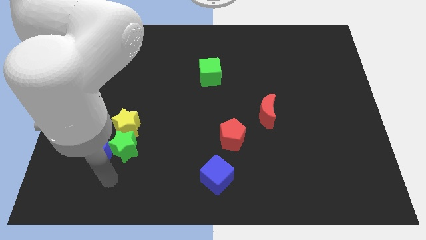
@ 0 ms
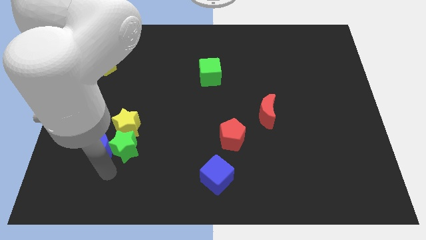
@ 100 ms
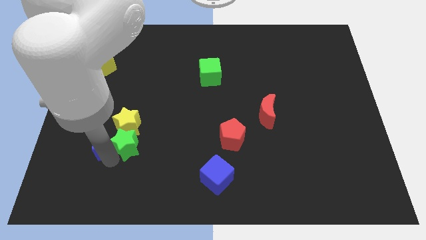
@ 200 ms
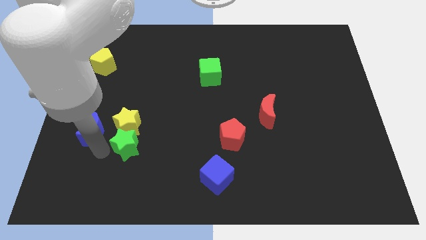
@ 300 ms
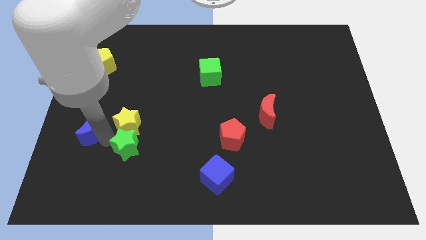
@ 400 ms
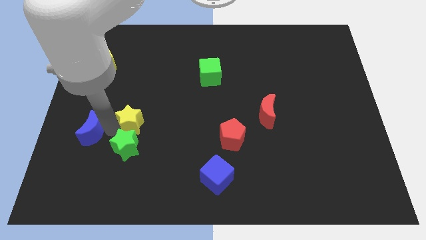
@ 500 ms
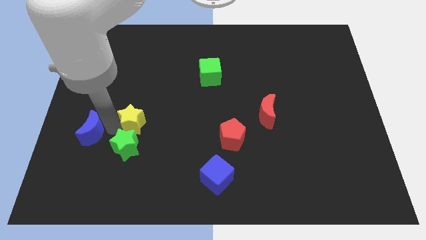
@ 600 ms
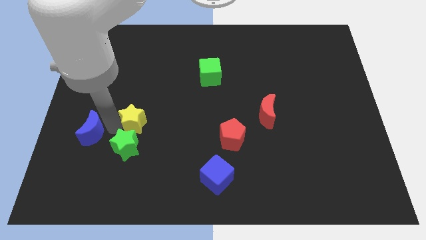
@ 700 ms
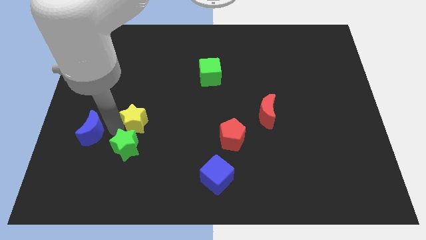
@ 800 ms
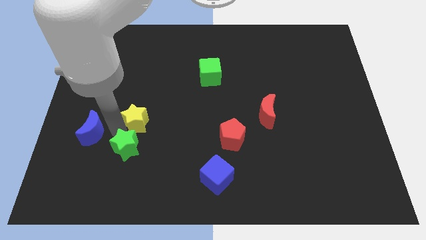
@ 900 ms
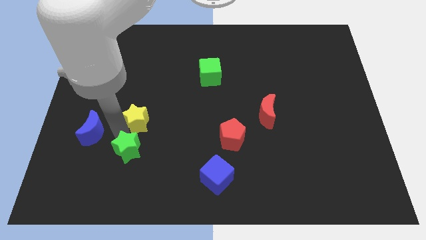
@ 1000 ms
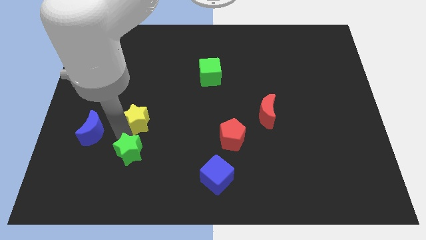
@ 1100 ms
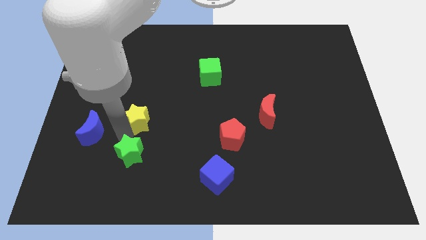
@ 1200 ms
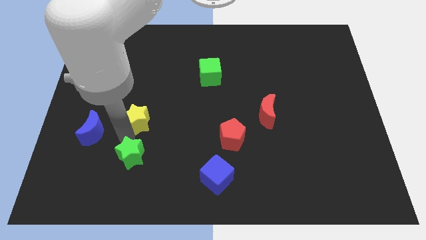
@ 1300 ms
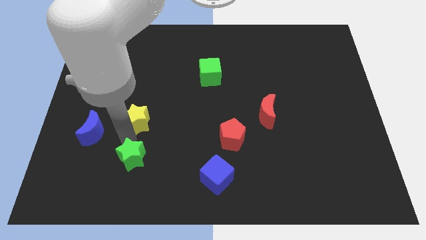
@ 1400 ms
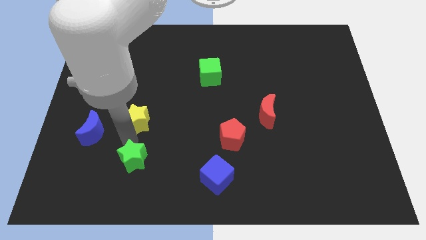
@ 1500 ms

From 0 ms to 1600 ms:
separate the green star from the blue moon and yellow star

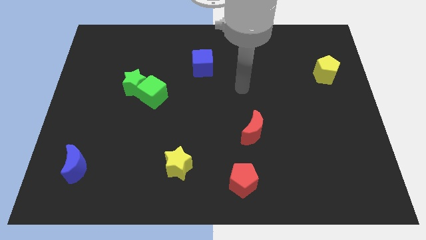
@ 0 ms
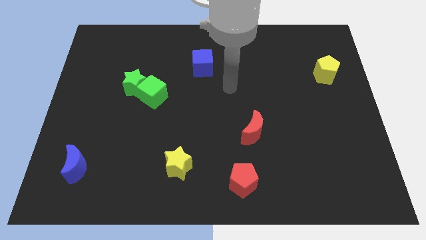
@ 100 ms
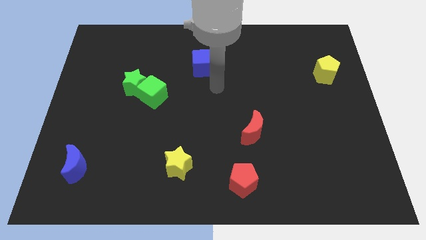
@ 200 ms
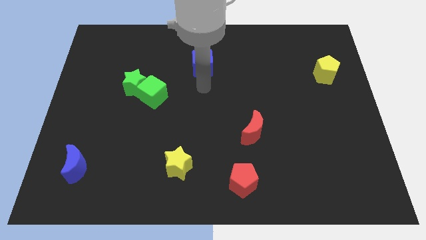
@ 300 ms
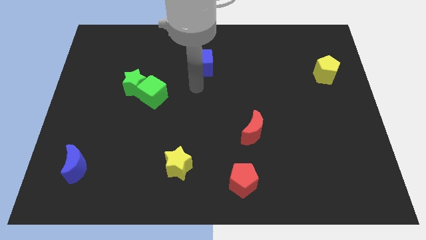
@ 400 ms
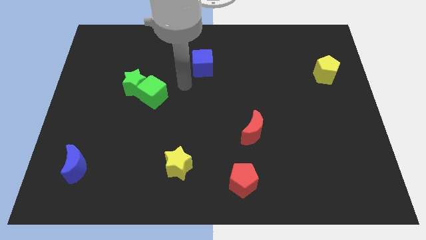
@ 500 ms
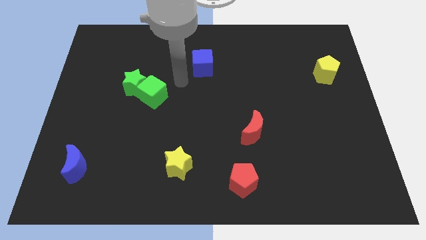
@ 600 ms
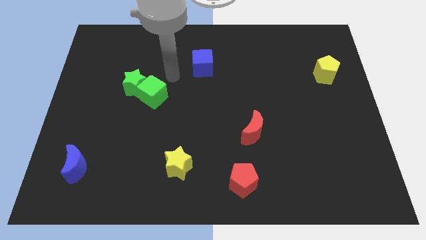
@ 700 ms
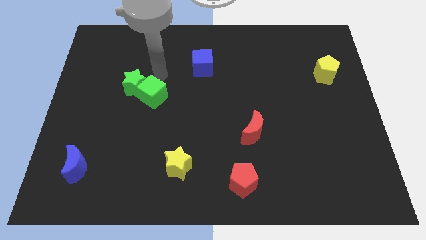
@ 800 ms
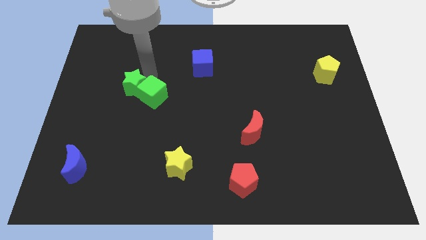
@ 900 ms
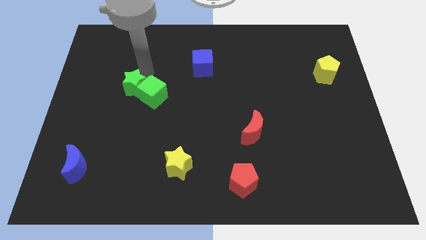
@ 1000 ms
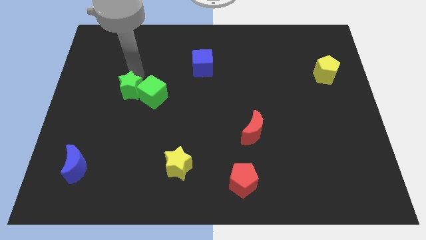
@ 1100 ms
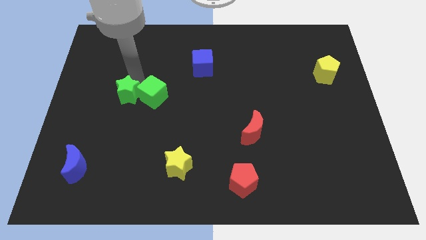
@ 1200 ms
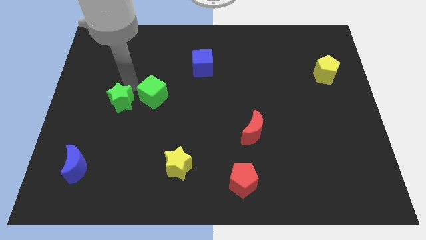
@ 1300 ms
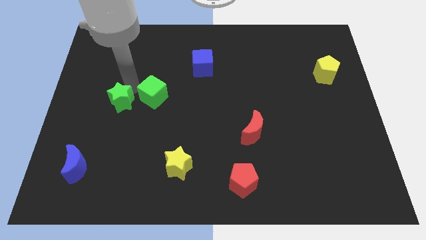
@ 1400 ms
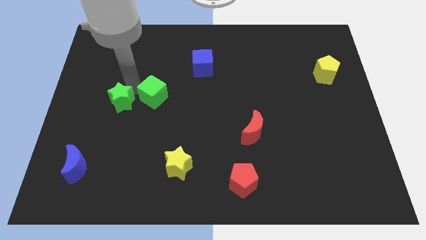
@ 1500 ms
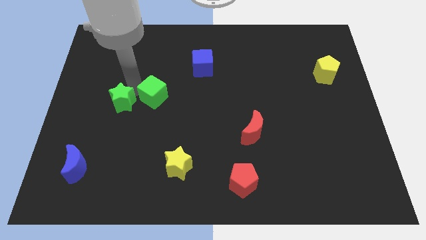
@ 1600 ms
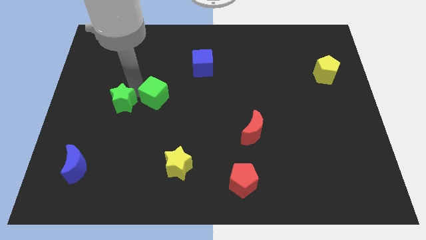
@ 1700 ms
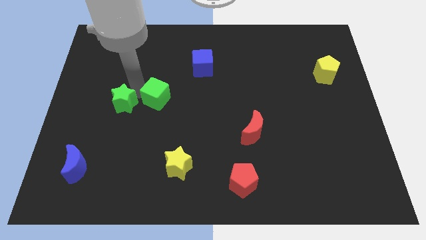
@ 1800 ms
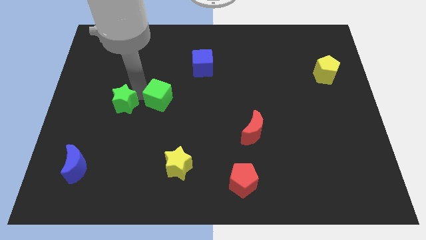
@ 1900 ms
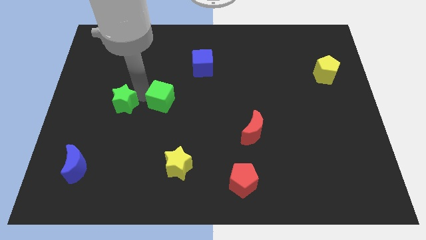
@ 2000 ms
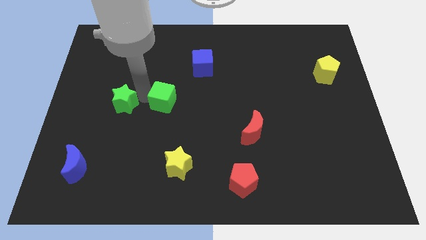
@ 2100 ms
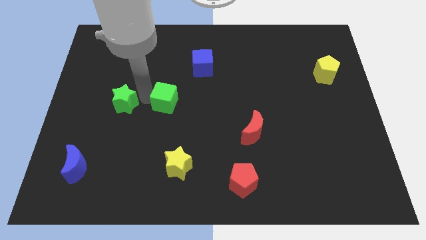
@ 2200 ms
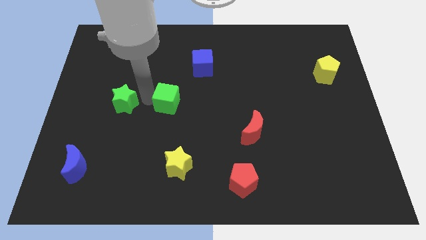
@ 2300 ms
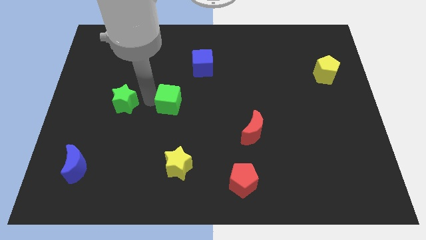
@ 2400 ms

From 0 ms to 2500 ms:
pull the green cube apart from the green star

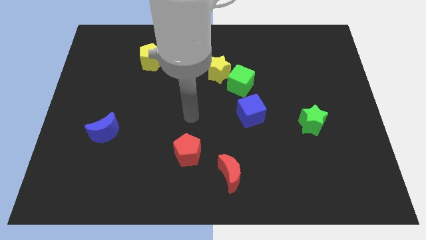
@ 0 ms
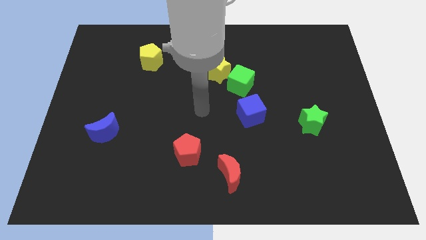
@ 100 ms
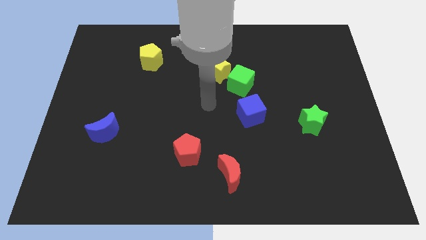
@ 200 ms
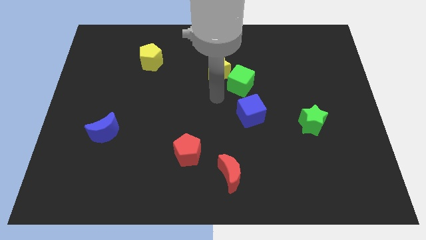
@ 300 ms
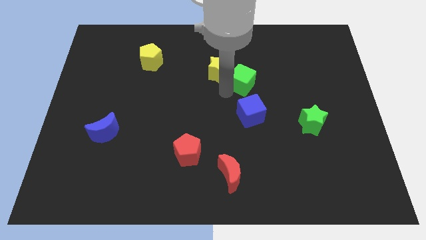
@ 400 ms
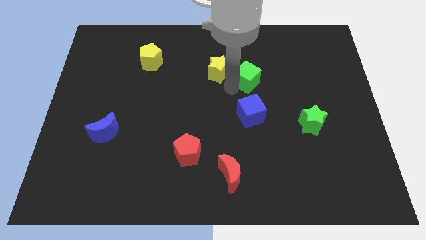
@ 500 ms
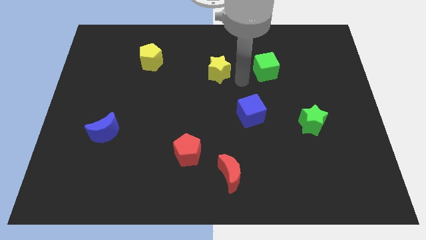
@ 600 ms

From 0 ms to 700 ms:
separate the yellow star from the green cube

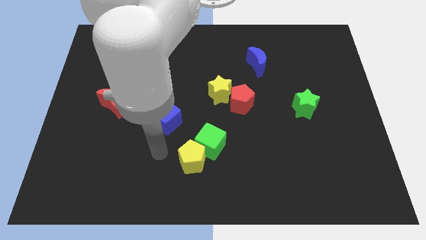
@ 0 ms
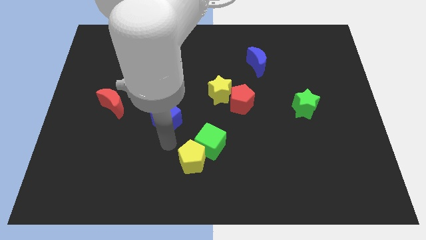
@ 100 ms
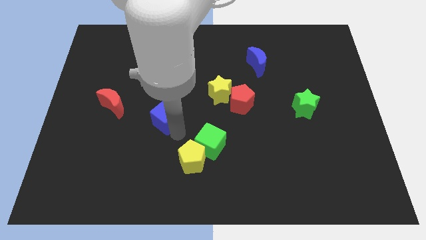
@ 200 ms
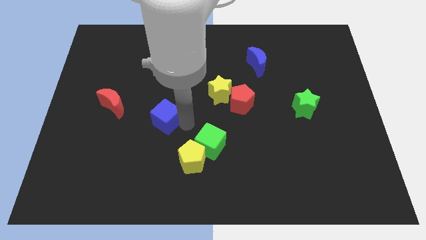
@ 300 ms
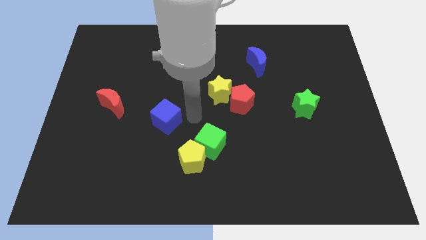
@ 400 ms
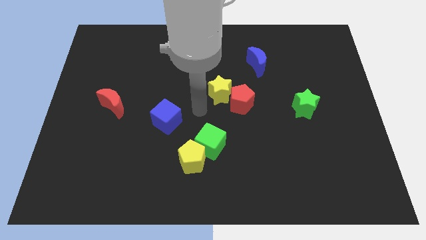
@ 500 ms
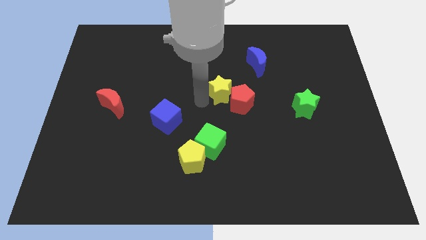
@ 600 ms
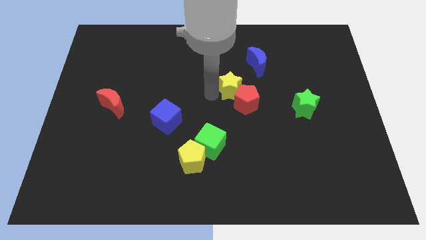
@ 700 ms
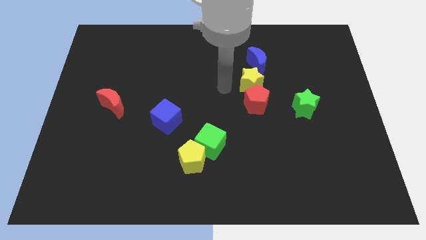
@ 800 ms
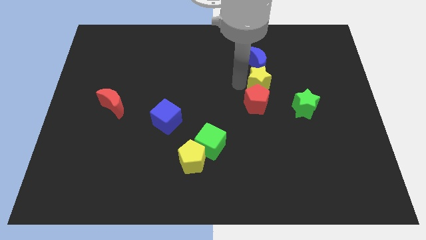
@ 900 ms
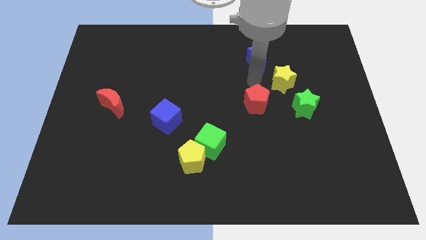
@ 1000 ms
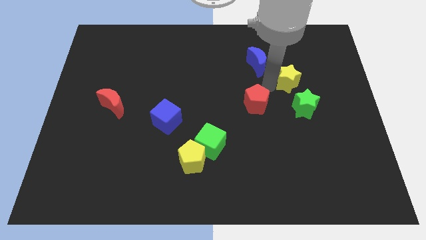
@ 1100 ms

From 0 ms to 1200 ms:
separate the red pentagon from the yellow star

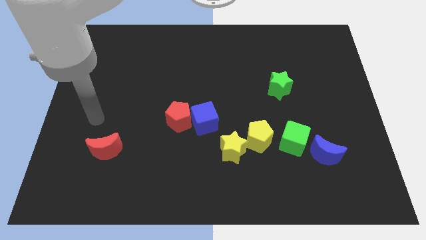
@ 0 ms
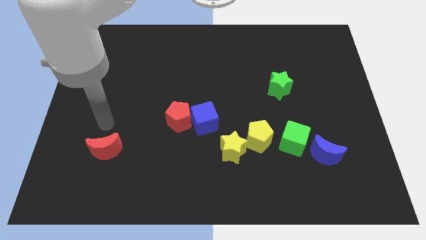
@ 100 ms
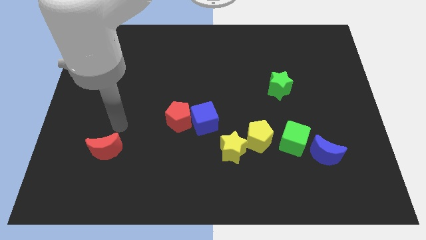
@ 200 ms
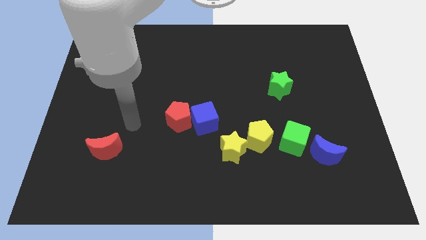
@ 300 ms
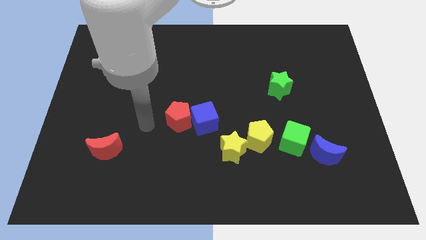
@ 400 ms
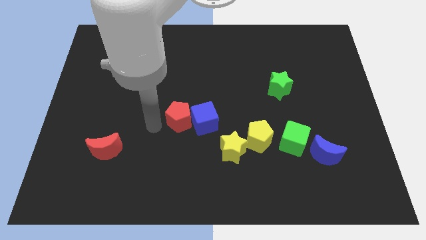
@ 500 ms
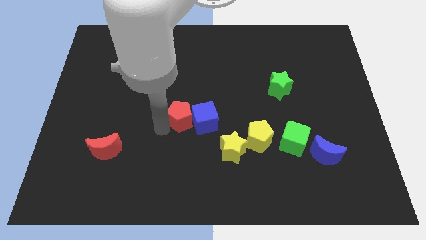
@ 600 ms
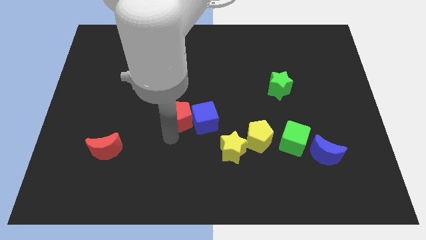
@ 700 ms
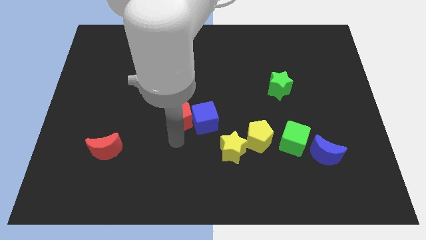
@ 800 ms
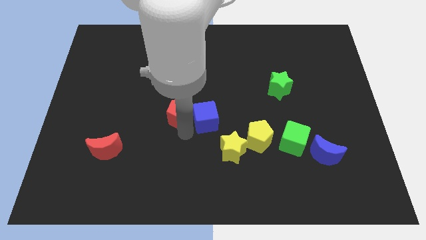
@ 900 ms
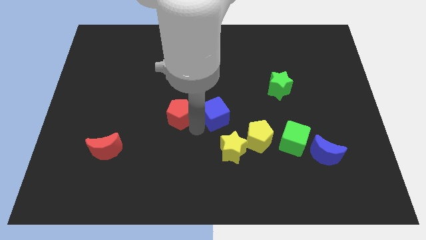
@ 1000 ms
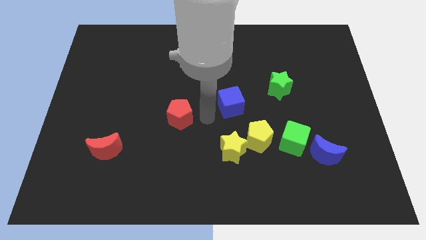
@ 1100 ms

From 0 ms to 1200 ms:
separate the red pentagon from the blue cube

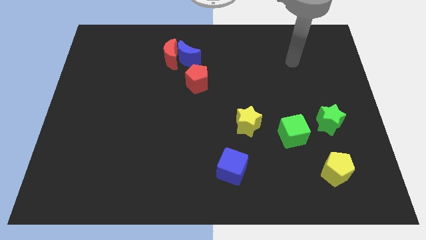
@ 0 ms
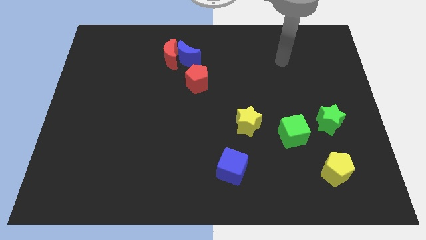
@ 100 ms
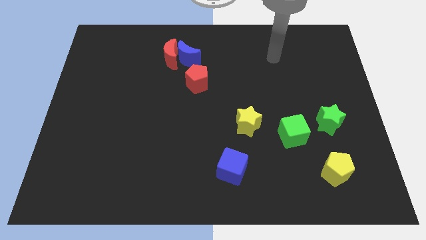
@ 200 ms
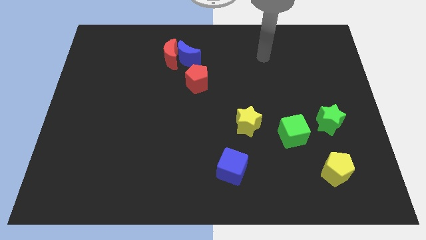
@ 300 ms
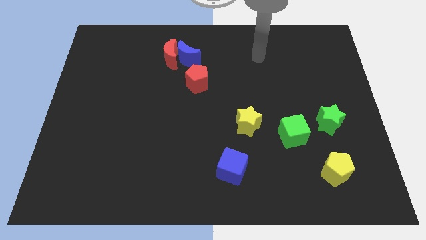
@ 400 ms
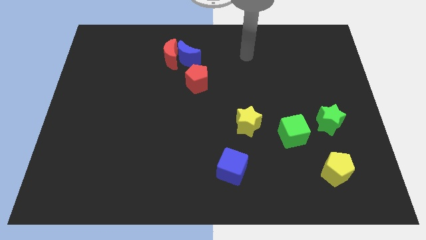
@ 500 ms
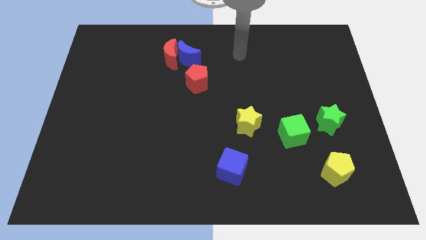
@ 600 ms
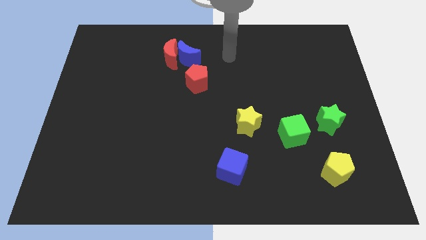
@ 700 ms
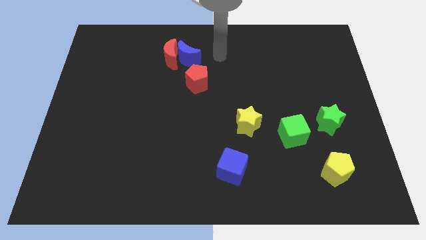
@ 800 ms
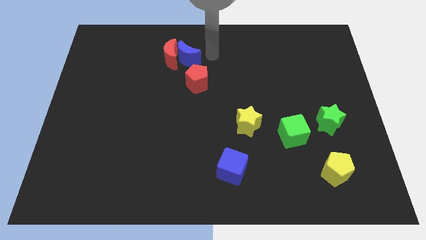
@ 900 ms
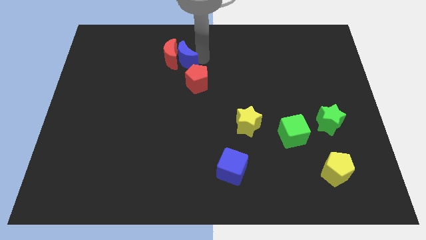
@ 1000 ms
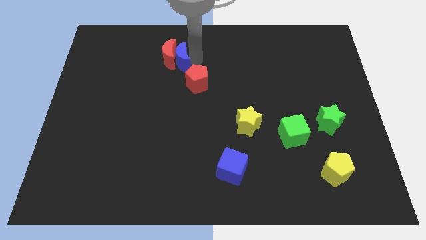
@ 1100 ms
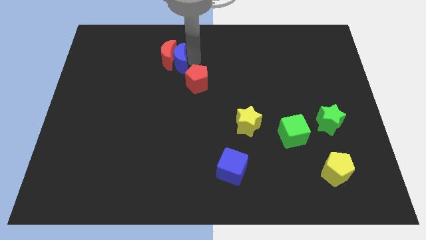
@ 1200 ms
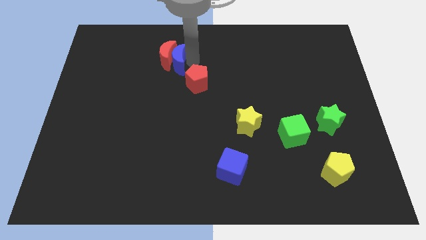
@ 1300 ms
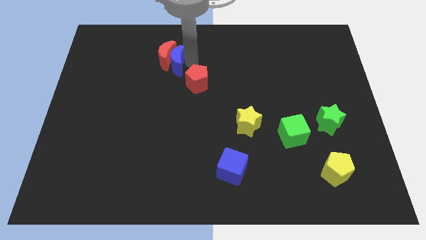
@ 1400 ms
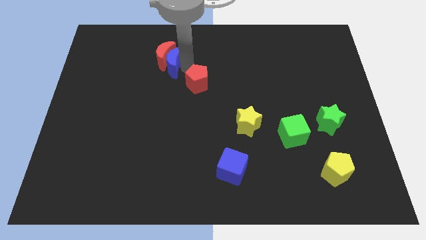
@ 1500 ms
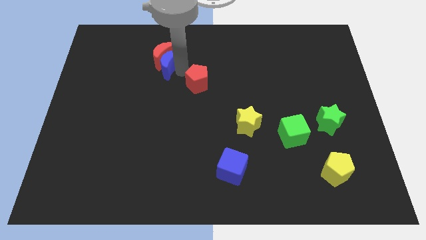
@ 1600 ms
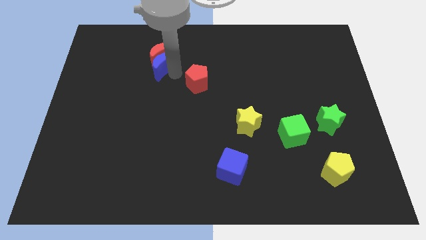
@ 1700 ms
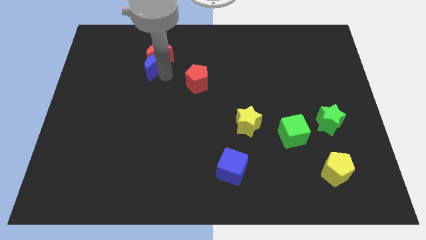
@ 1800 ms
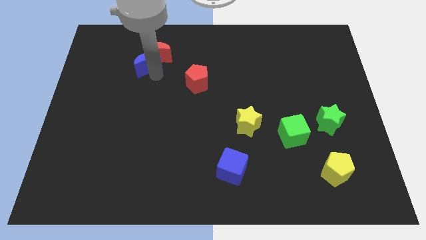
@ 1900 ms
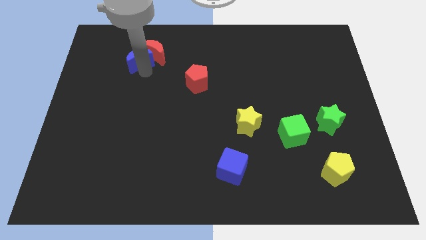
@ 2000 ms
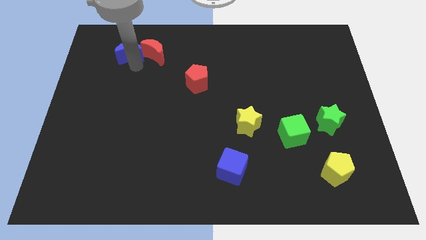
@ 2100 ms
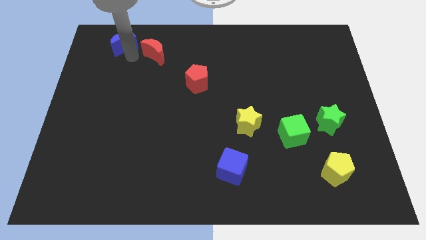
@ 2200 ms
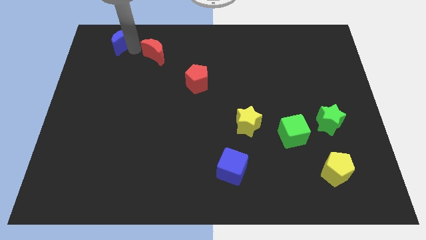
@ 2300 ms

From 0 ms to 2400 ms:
pull the red moon apart from the blue moon
